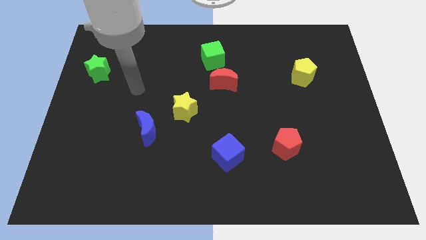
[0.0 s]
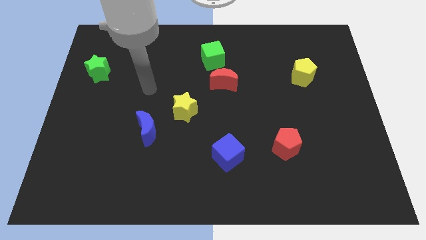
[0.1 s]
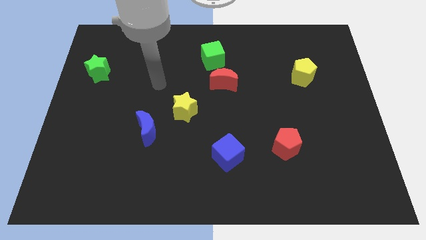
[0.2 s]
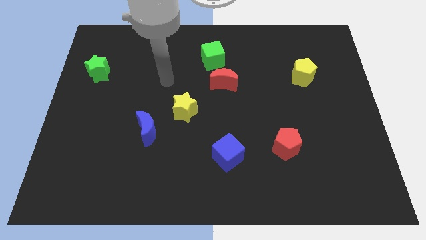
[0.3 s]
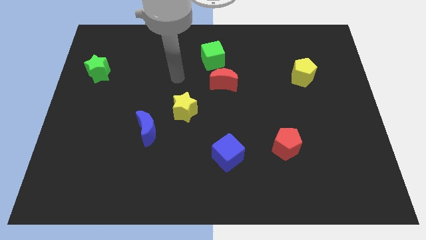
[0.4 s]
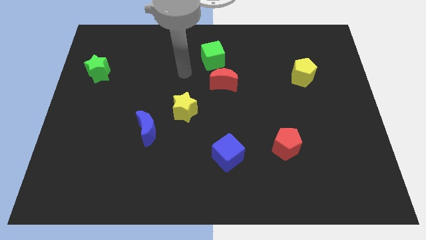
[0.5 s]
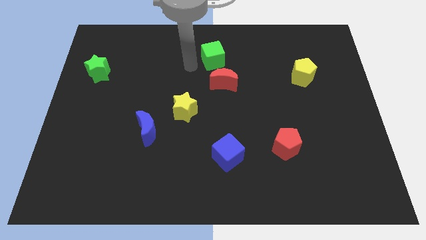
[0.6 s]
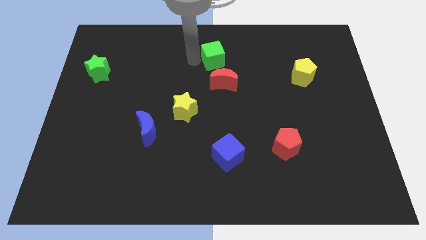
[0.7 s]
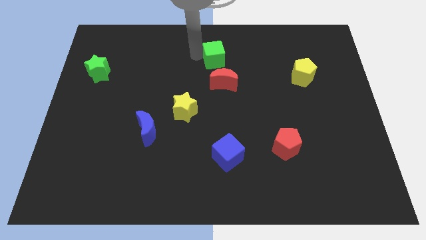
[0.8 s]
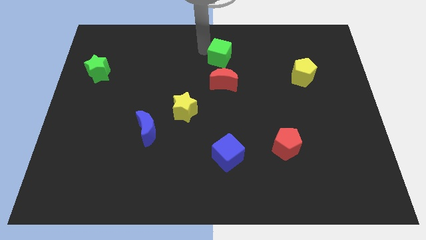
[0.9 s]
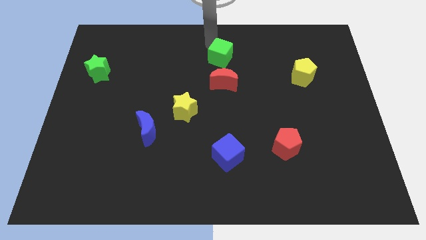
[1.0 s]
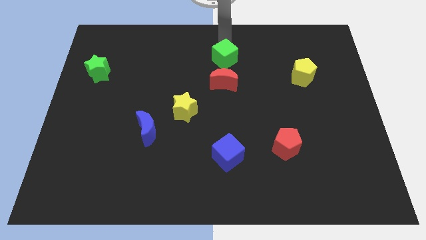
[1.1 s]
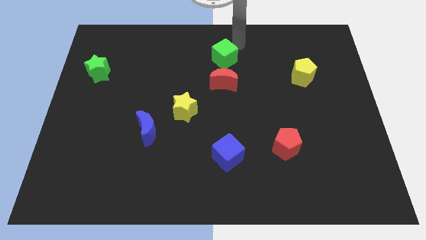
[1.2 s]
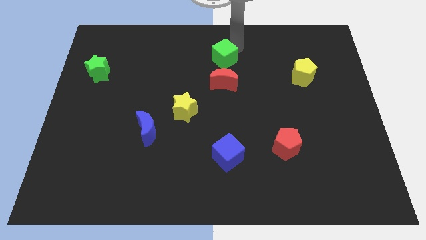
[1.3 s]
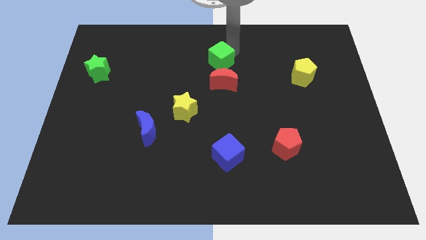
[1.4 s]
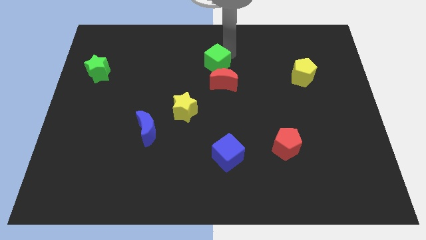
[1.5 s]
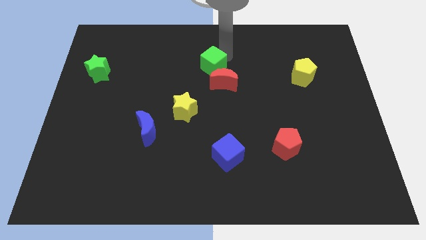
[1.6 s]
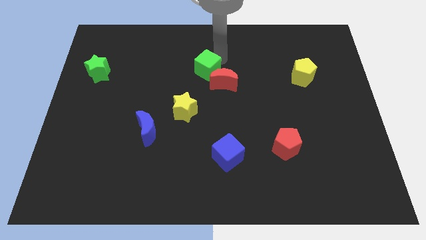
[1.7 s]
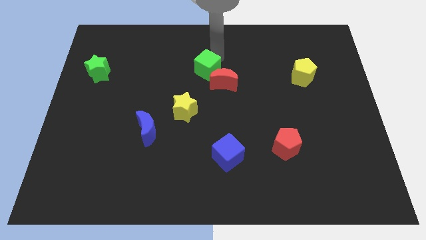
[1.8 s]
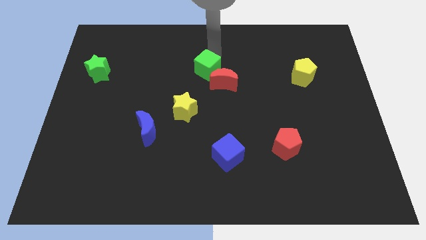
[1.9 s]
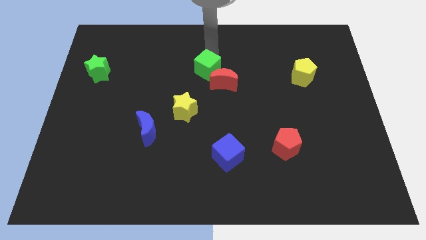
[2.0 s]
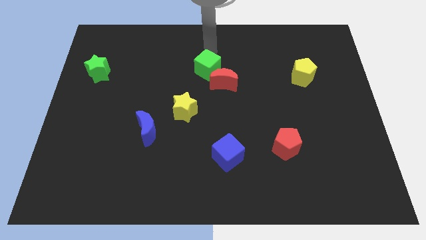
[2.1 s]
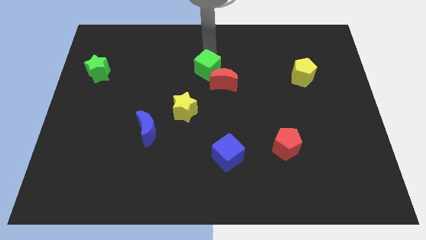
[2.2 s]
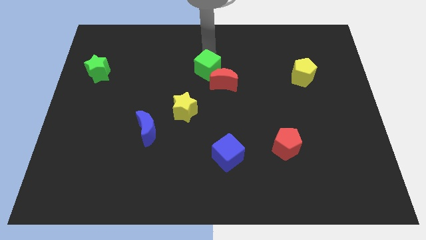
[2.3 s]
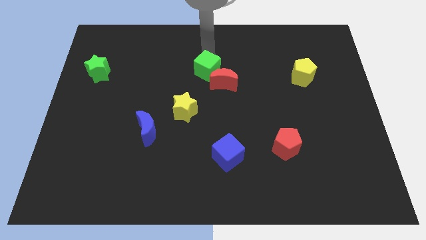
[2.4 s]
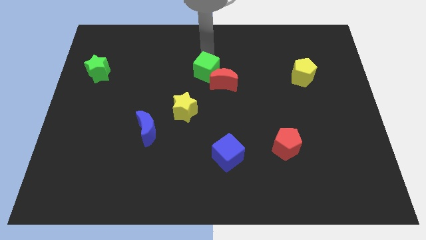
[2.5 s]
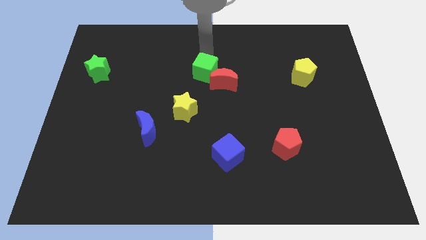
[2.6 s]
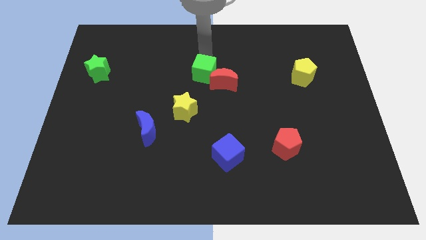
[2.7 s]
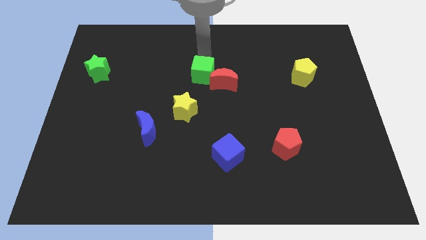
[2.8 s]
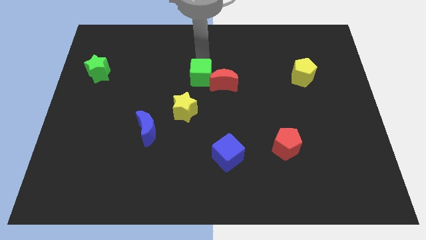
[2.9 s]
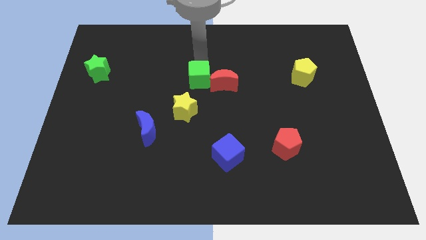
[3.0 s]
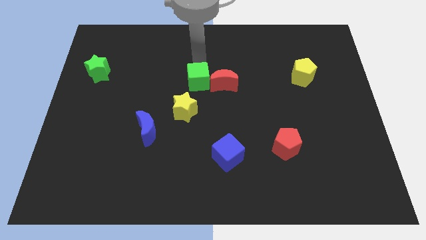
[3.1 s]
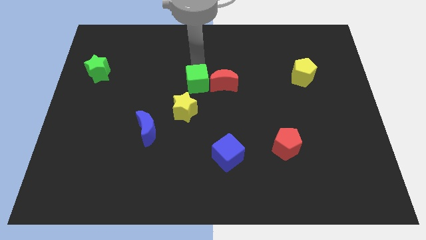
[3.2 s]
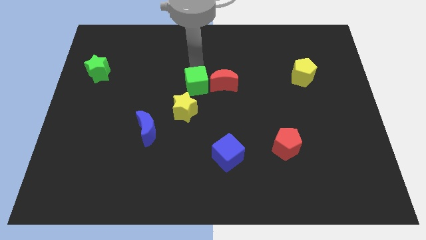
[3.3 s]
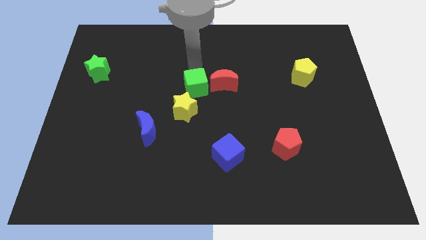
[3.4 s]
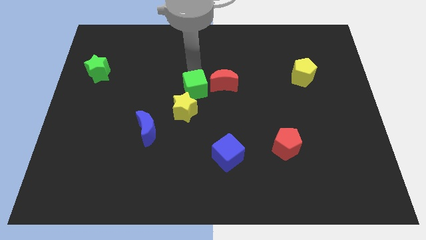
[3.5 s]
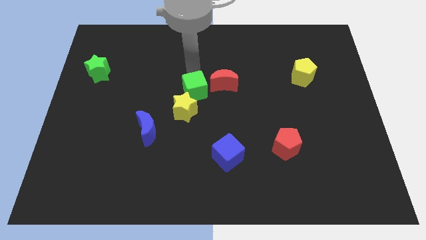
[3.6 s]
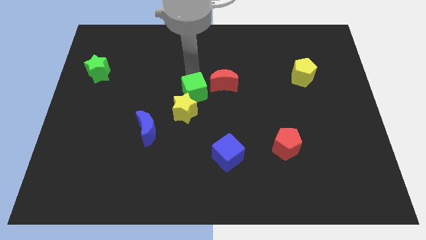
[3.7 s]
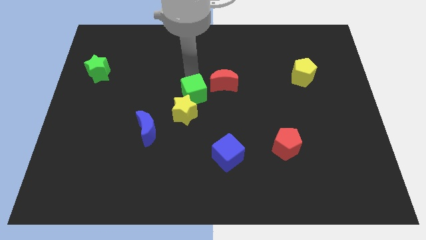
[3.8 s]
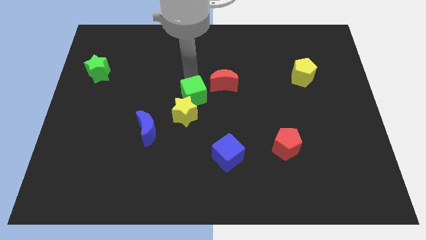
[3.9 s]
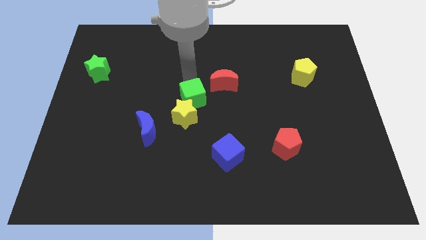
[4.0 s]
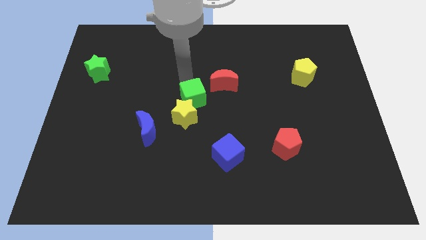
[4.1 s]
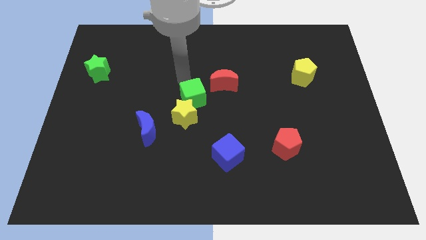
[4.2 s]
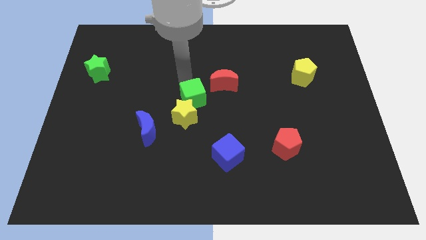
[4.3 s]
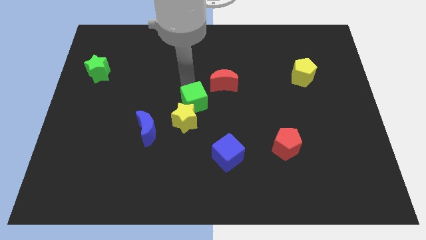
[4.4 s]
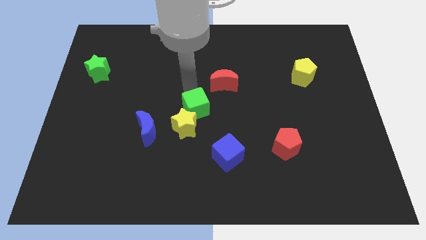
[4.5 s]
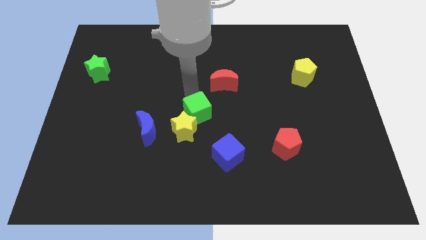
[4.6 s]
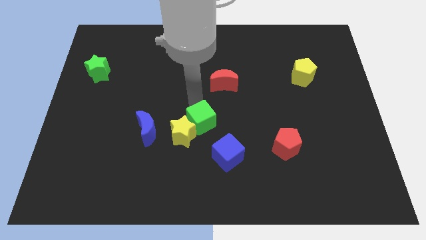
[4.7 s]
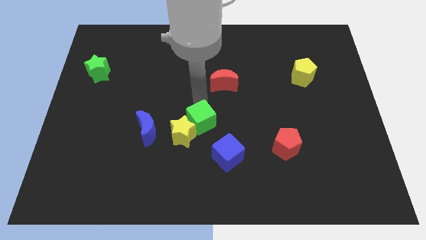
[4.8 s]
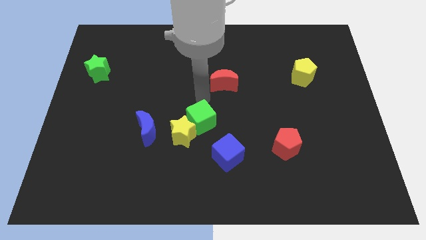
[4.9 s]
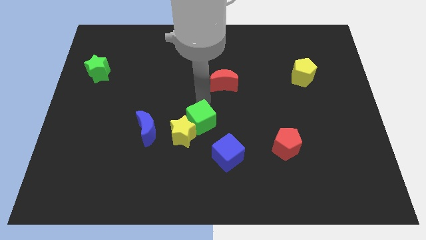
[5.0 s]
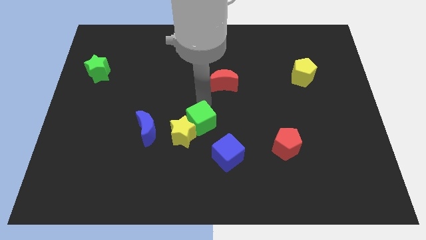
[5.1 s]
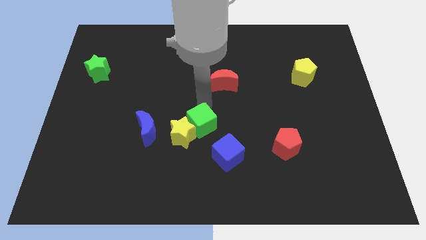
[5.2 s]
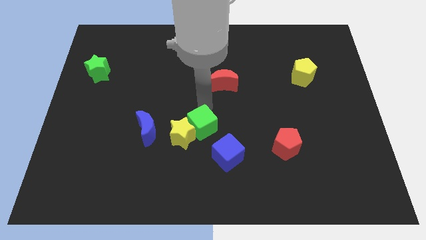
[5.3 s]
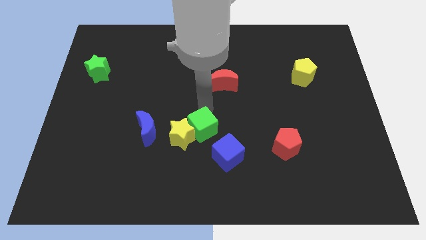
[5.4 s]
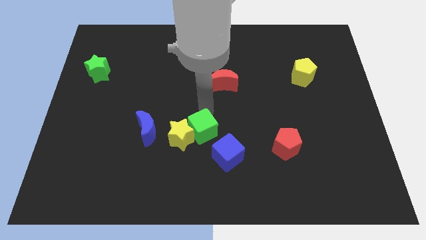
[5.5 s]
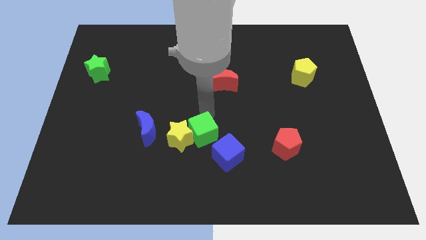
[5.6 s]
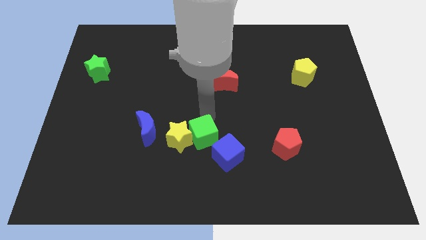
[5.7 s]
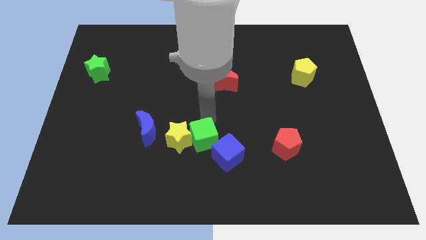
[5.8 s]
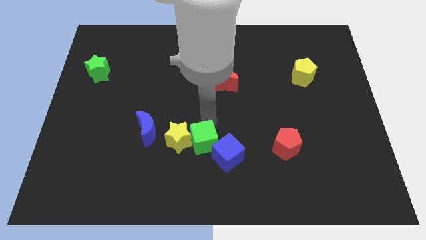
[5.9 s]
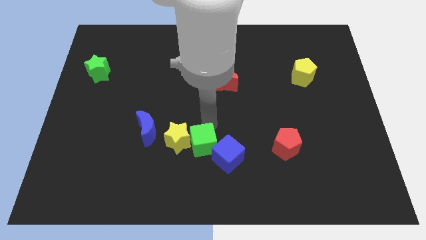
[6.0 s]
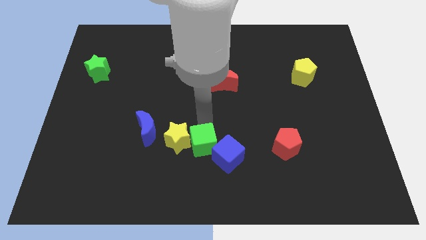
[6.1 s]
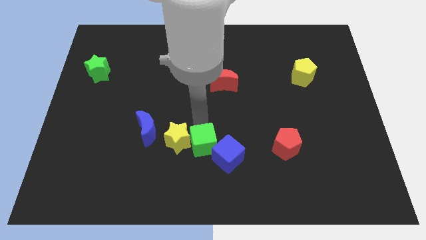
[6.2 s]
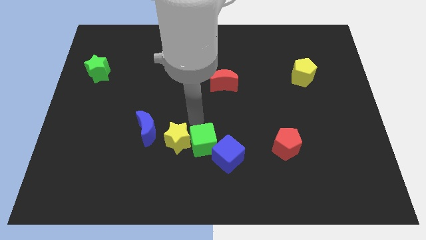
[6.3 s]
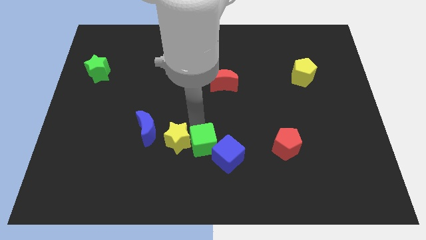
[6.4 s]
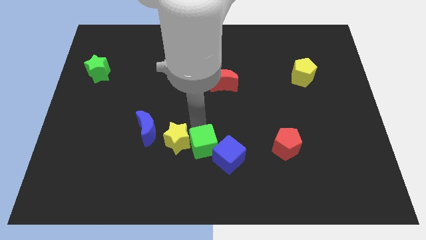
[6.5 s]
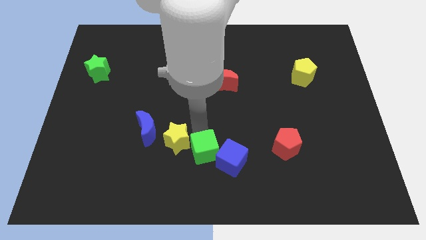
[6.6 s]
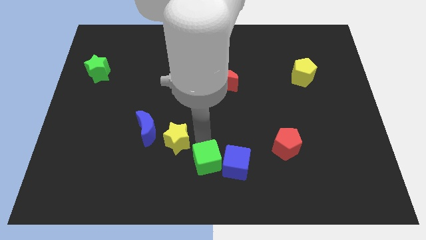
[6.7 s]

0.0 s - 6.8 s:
put the green cube to the bottom
